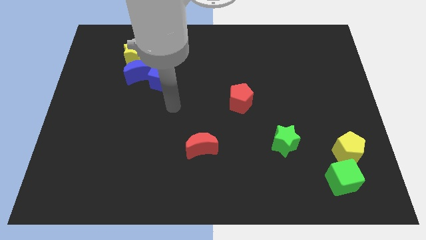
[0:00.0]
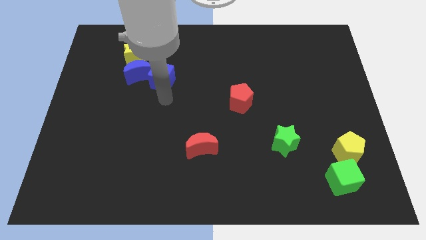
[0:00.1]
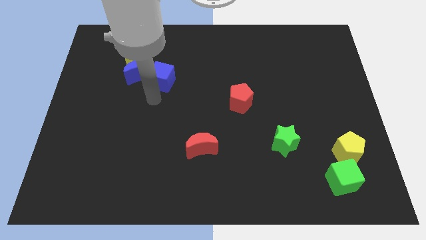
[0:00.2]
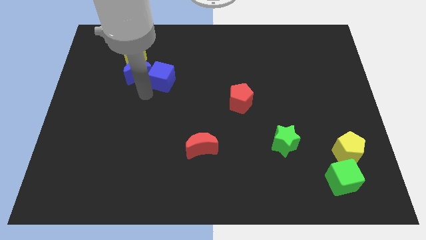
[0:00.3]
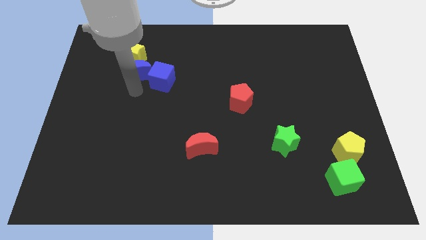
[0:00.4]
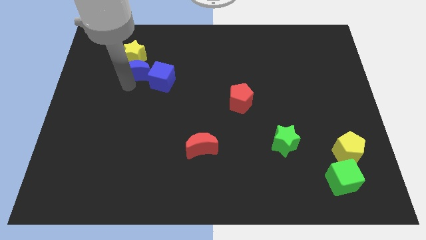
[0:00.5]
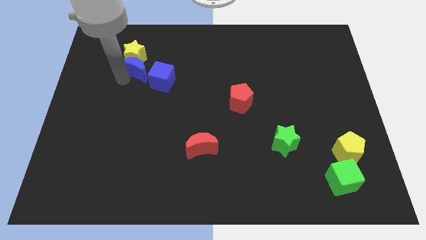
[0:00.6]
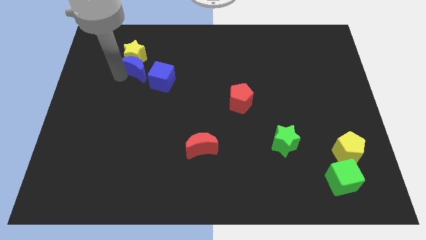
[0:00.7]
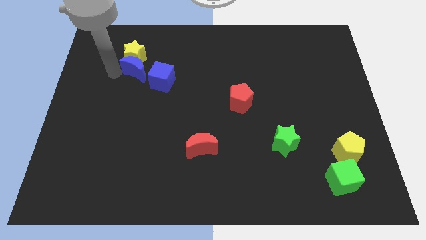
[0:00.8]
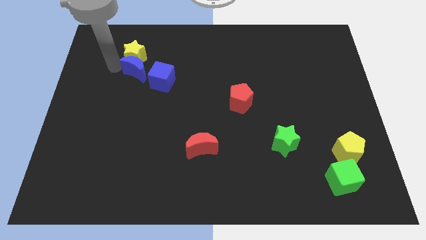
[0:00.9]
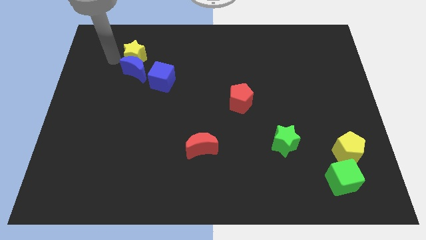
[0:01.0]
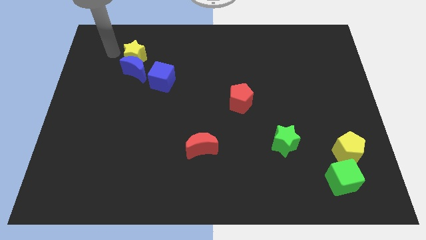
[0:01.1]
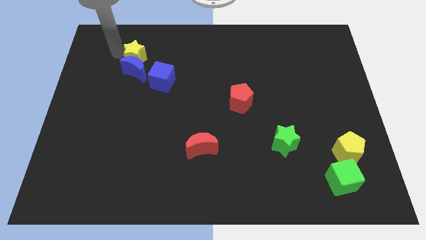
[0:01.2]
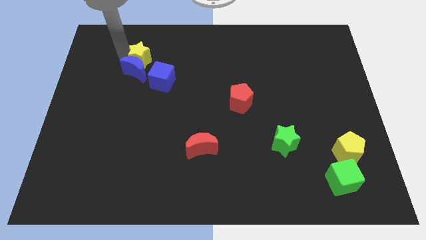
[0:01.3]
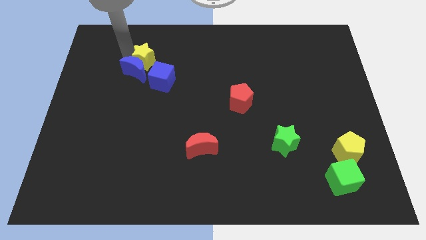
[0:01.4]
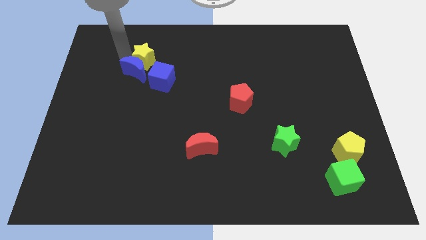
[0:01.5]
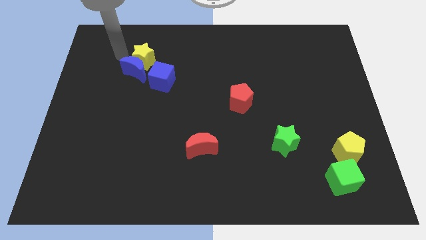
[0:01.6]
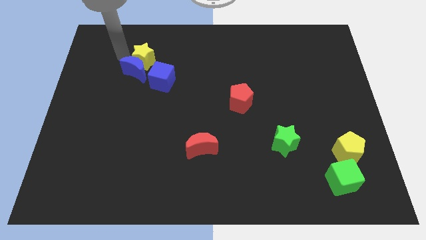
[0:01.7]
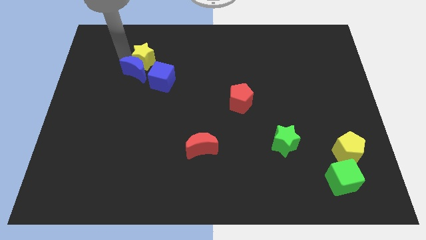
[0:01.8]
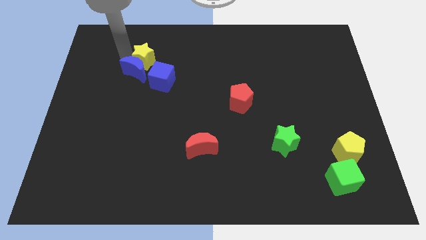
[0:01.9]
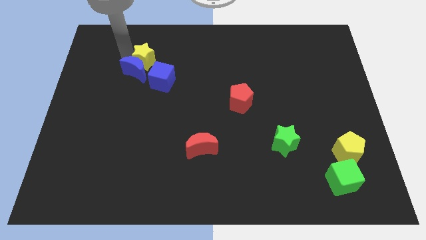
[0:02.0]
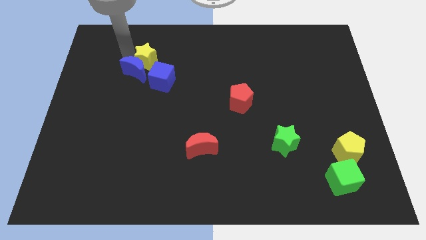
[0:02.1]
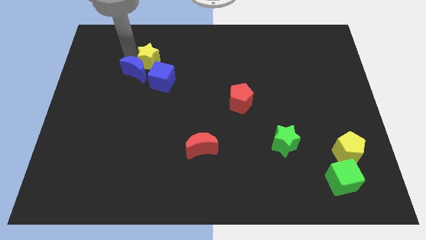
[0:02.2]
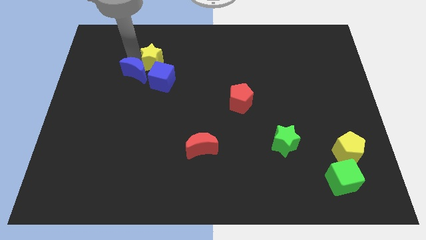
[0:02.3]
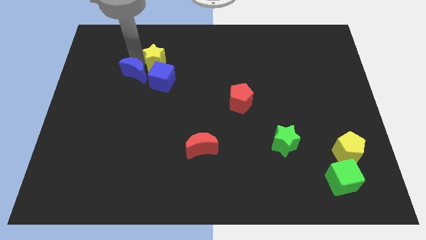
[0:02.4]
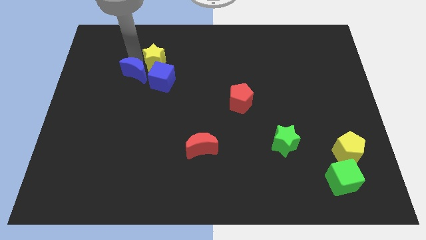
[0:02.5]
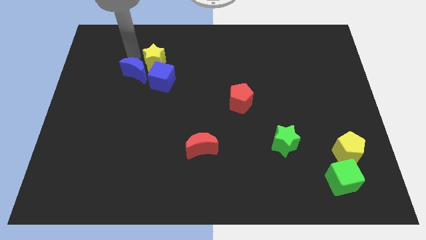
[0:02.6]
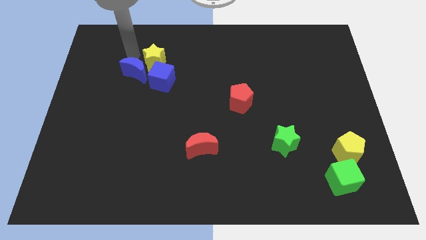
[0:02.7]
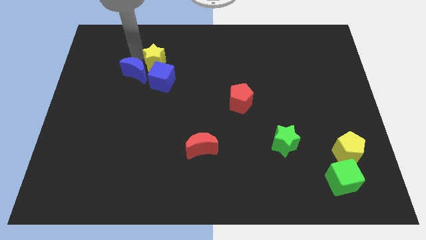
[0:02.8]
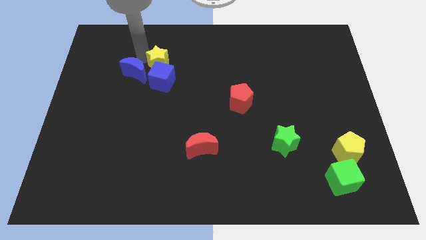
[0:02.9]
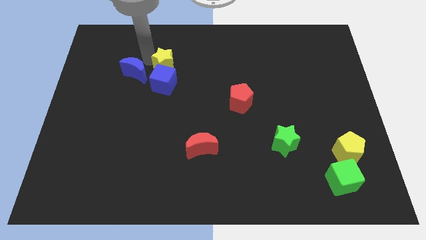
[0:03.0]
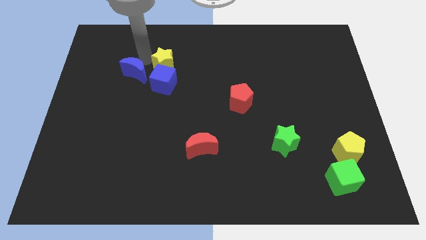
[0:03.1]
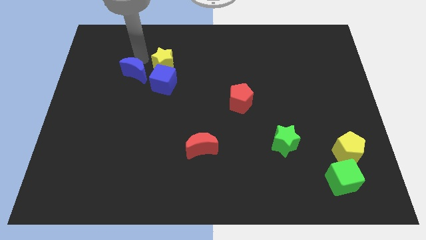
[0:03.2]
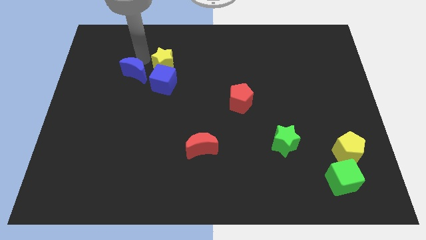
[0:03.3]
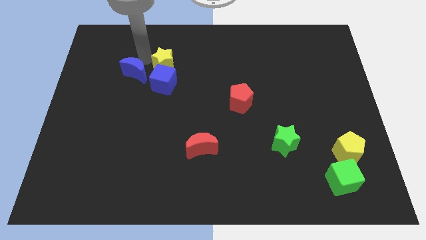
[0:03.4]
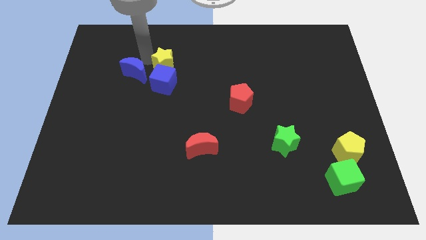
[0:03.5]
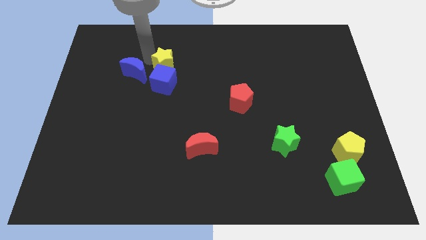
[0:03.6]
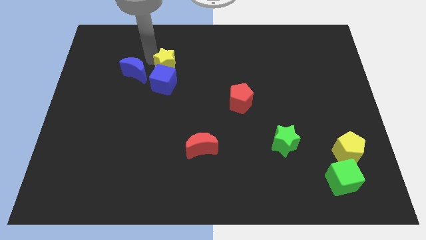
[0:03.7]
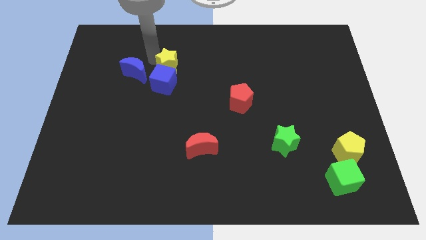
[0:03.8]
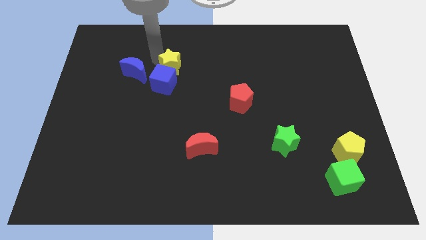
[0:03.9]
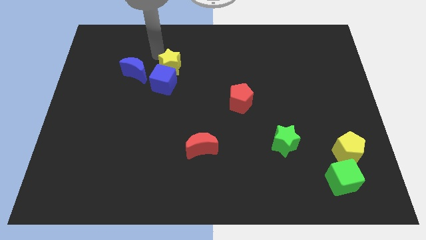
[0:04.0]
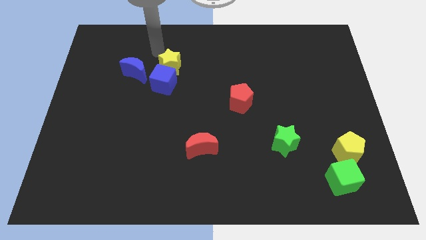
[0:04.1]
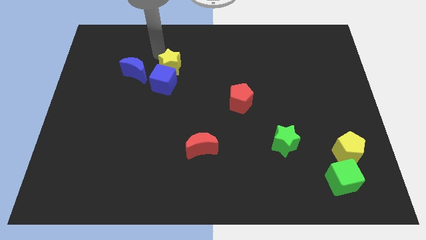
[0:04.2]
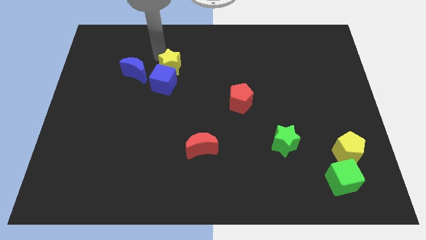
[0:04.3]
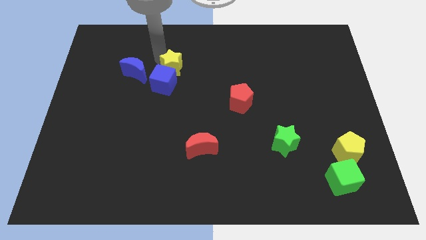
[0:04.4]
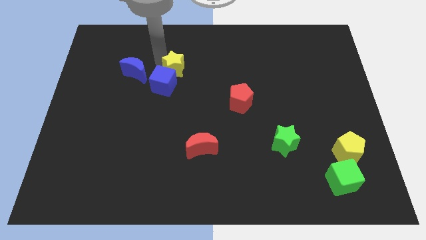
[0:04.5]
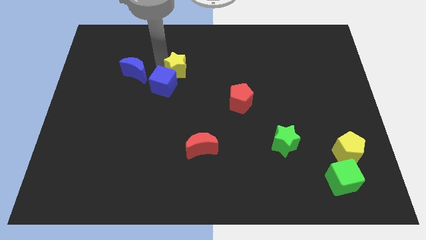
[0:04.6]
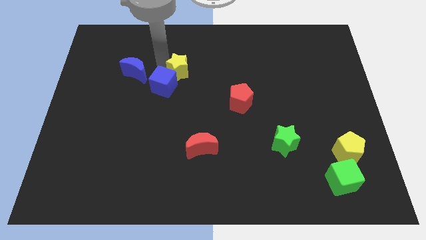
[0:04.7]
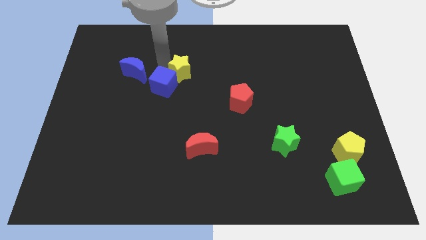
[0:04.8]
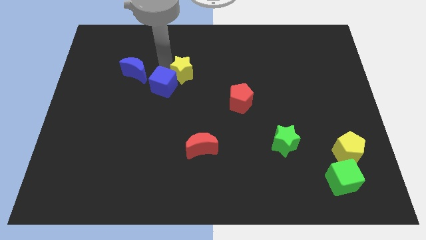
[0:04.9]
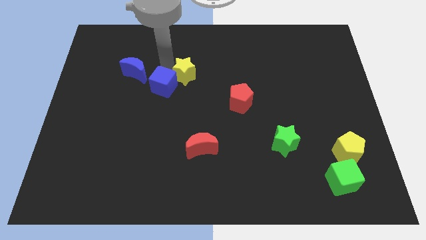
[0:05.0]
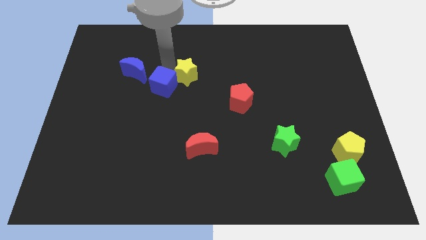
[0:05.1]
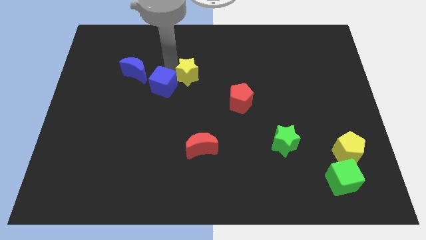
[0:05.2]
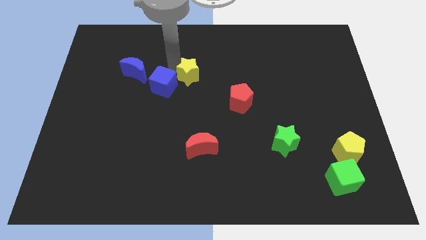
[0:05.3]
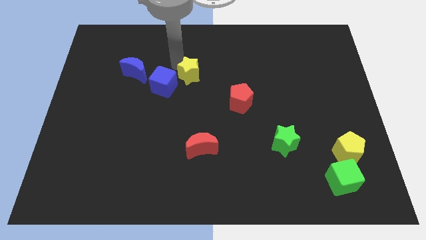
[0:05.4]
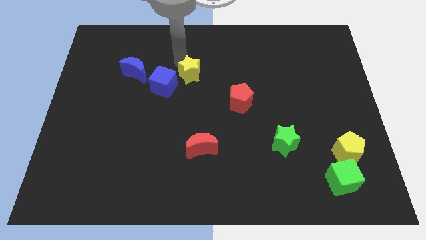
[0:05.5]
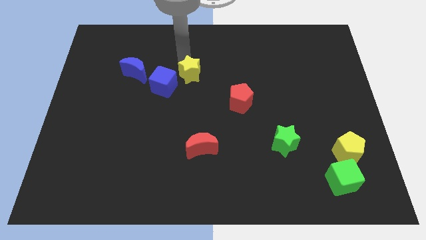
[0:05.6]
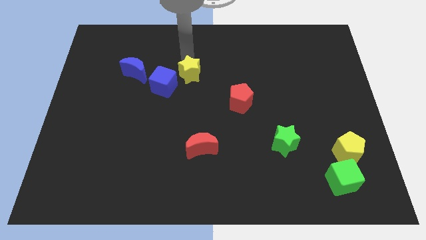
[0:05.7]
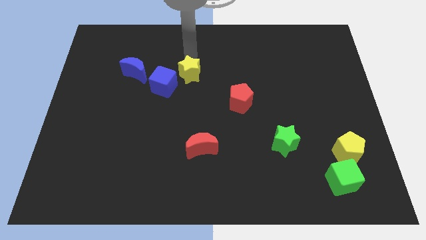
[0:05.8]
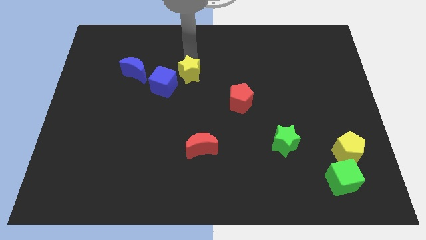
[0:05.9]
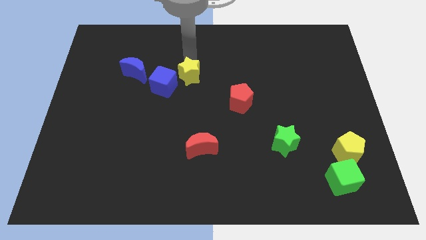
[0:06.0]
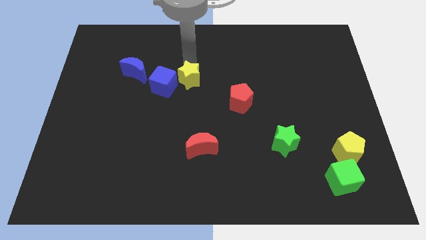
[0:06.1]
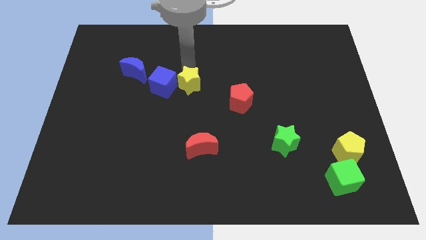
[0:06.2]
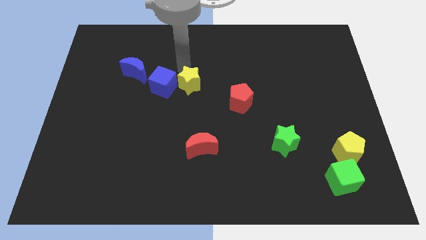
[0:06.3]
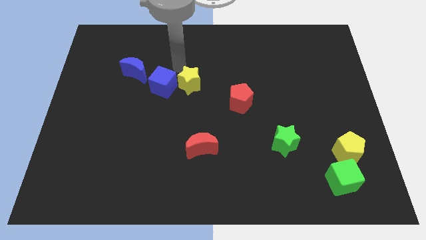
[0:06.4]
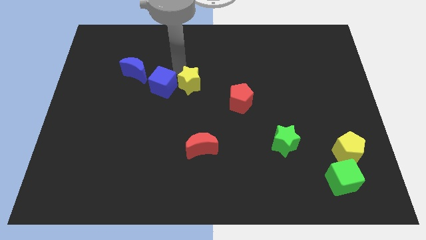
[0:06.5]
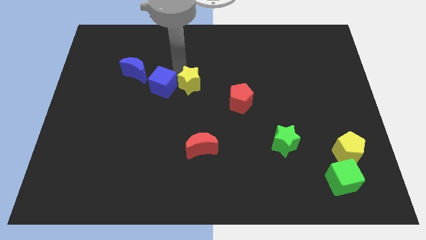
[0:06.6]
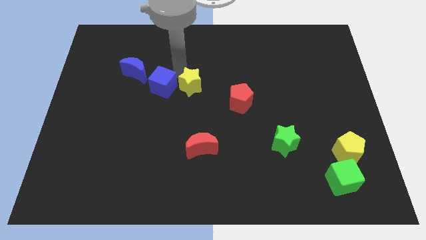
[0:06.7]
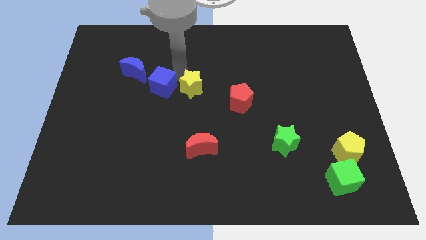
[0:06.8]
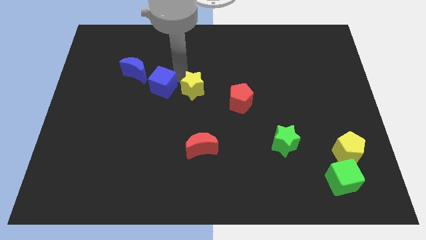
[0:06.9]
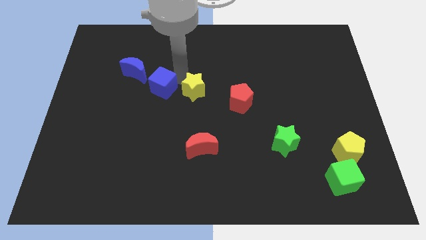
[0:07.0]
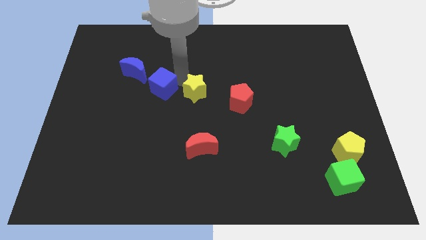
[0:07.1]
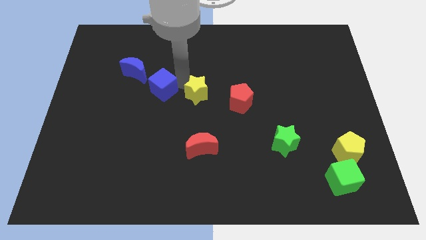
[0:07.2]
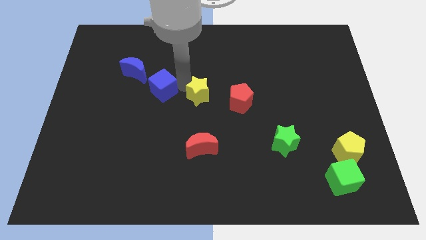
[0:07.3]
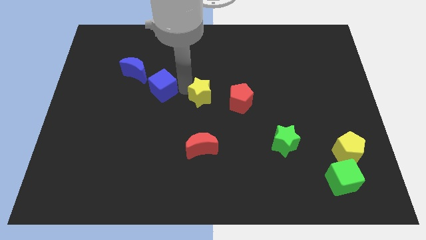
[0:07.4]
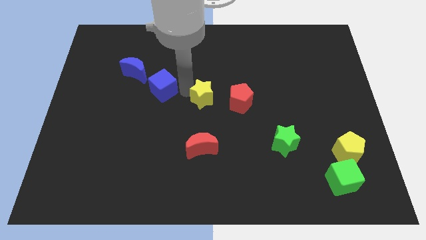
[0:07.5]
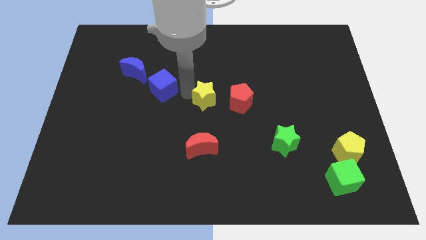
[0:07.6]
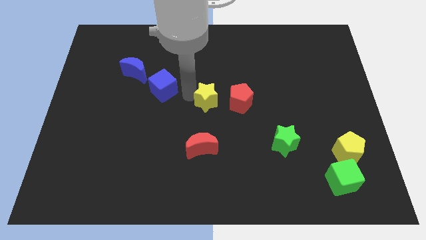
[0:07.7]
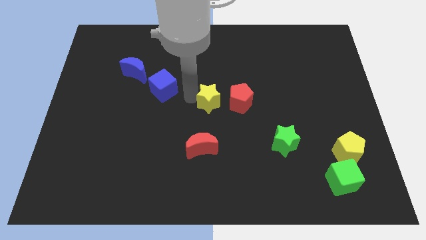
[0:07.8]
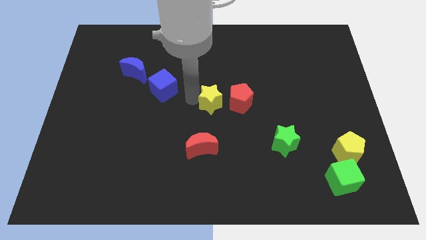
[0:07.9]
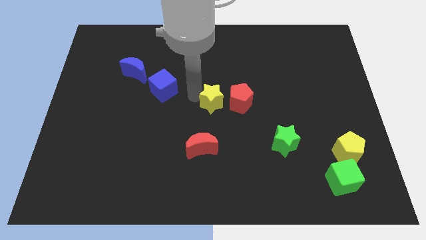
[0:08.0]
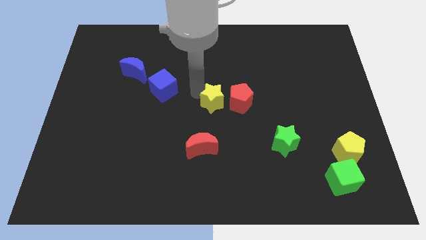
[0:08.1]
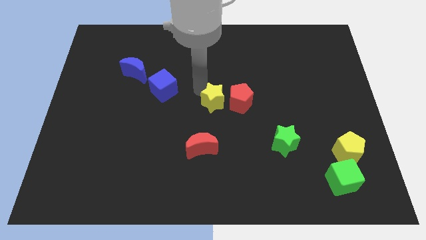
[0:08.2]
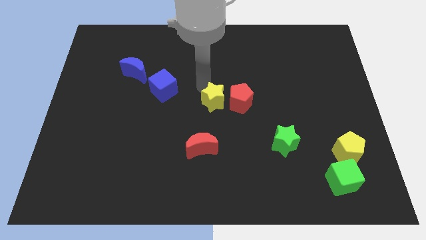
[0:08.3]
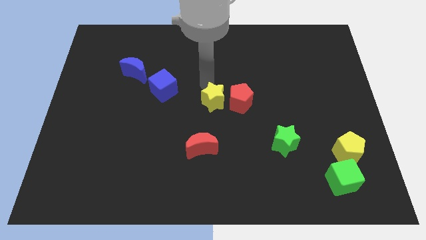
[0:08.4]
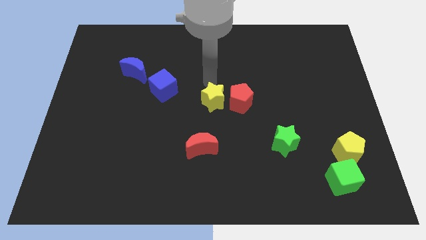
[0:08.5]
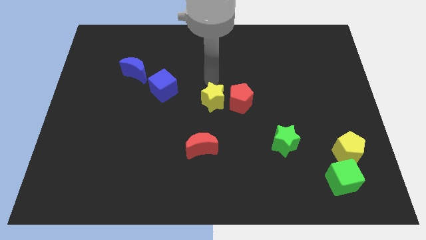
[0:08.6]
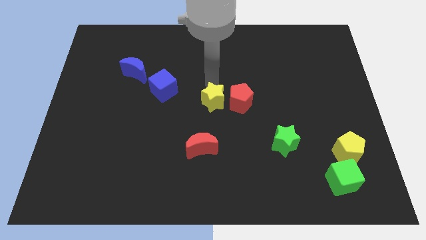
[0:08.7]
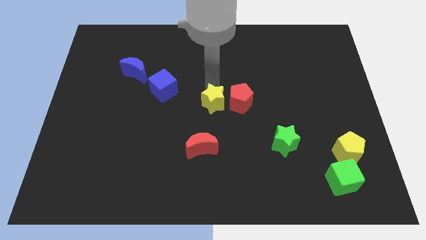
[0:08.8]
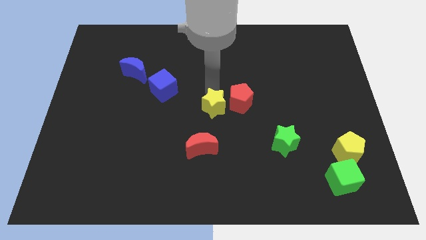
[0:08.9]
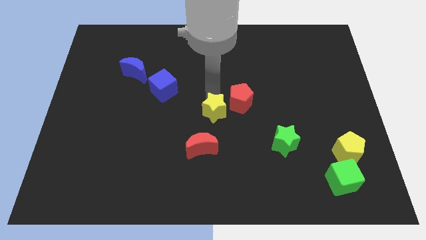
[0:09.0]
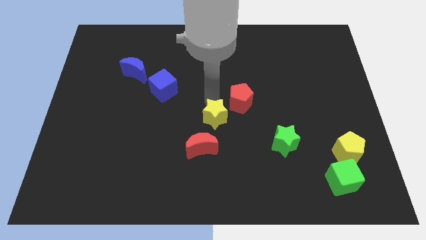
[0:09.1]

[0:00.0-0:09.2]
move the yellow star to the top right of the red moon
